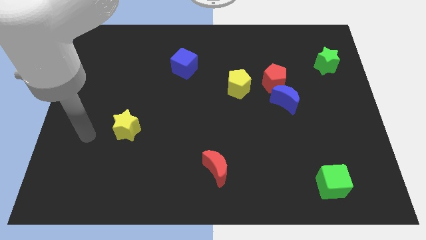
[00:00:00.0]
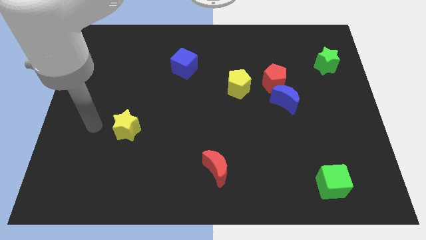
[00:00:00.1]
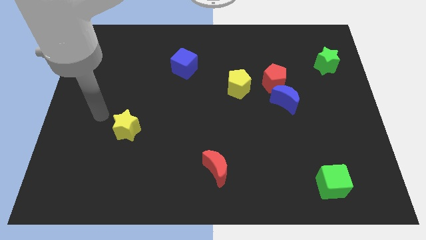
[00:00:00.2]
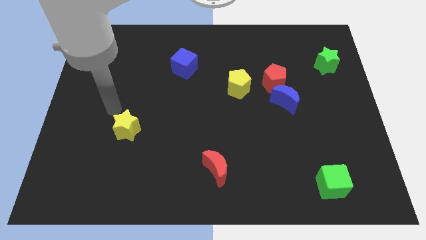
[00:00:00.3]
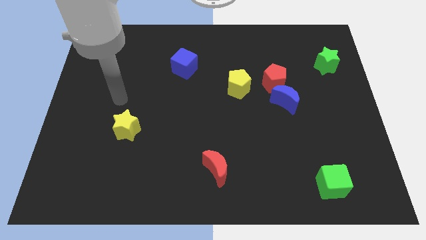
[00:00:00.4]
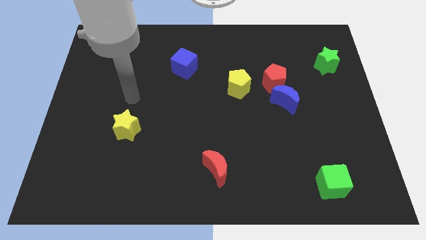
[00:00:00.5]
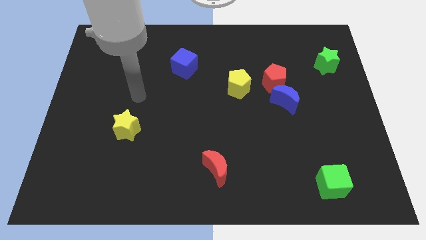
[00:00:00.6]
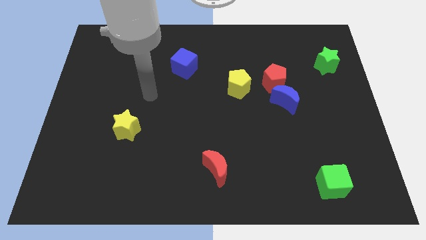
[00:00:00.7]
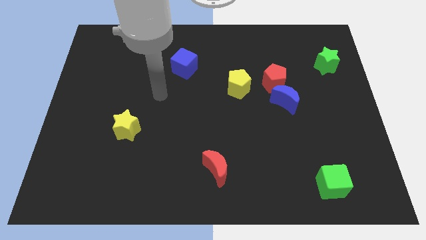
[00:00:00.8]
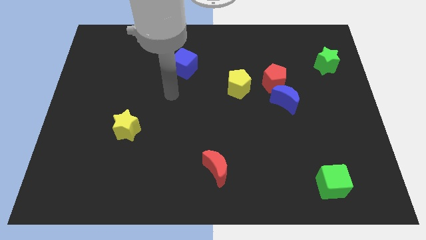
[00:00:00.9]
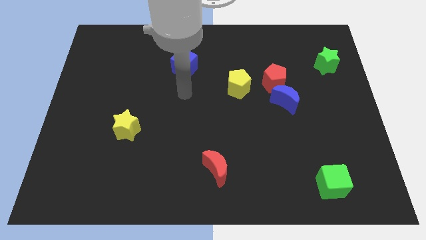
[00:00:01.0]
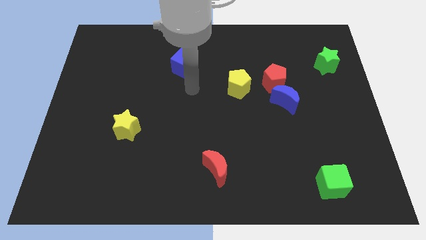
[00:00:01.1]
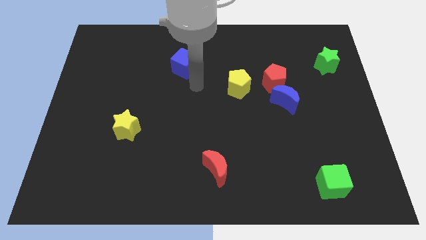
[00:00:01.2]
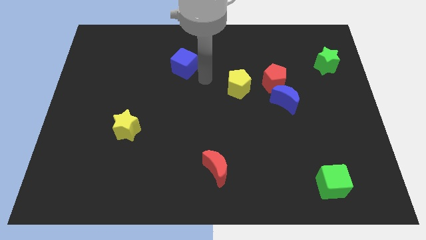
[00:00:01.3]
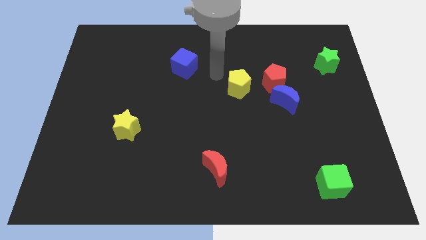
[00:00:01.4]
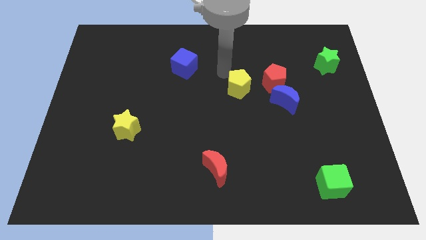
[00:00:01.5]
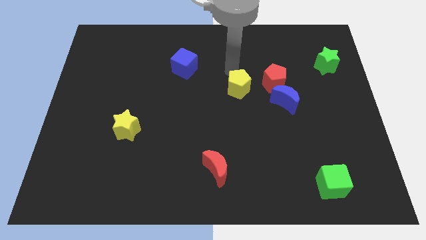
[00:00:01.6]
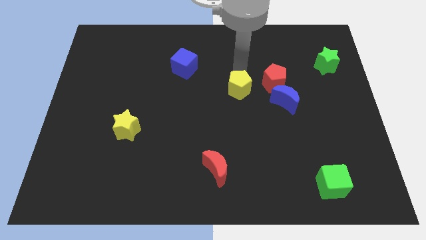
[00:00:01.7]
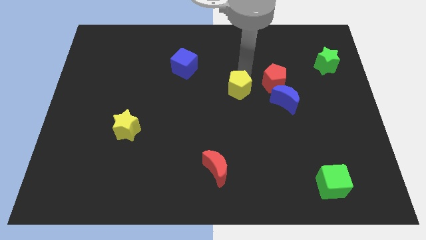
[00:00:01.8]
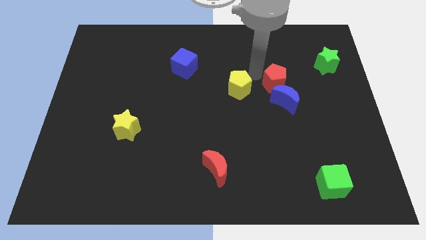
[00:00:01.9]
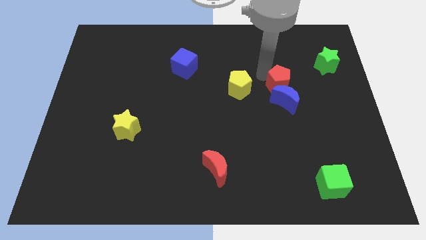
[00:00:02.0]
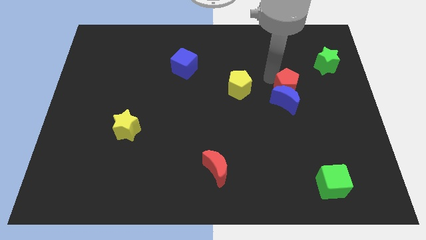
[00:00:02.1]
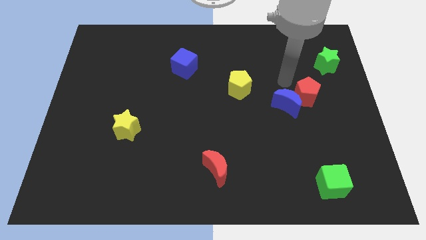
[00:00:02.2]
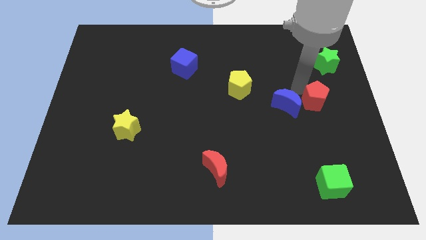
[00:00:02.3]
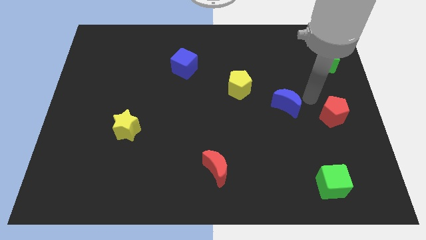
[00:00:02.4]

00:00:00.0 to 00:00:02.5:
pull the blue moon apart from the red pentagon

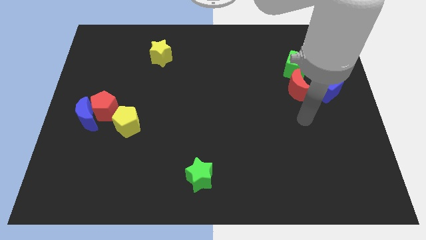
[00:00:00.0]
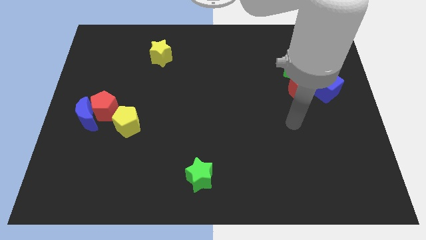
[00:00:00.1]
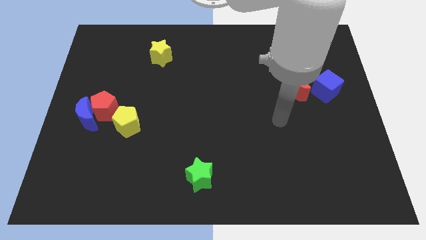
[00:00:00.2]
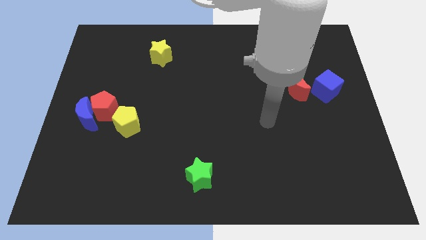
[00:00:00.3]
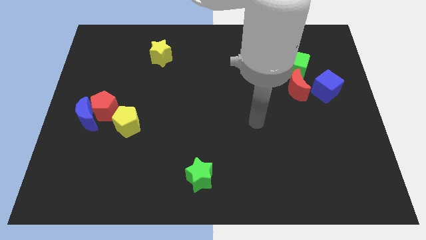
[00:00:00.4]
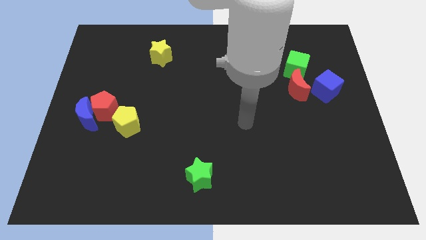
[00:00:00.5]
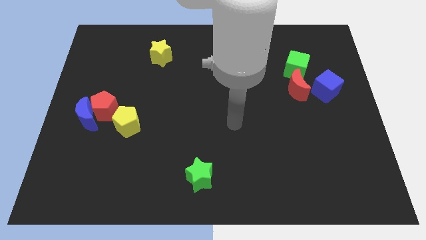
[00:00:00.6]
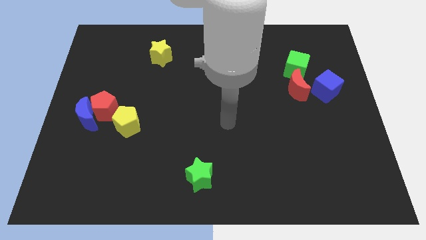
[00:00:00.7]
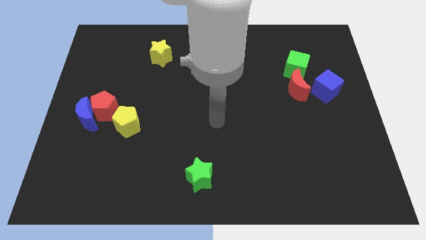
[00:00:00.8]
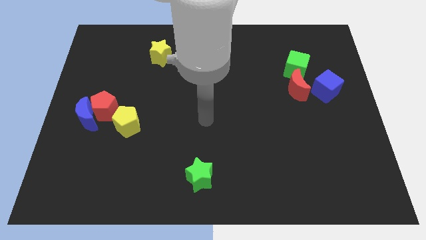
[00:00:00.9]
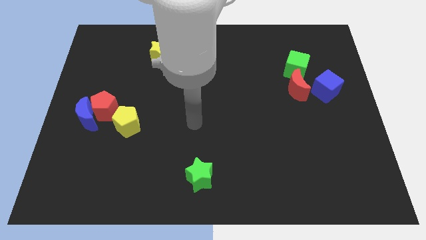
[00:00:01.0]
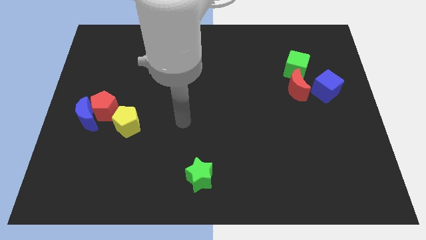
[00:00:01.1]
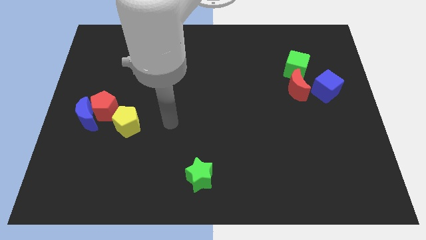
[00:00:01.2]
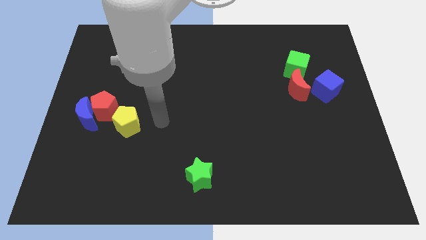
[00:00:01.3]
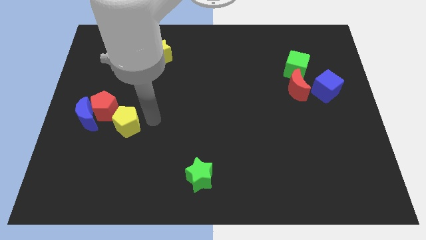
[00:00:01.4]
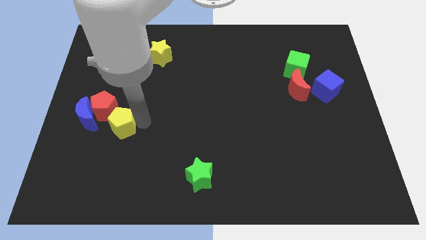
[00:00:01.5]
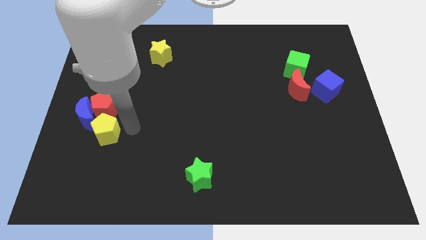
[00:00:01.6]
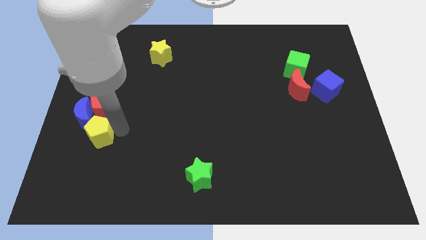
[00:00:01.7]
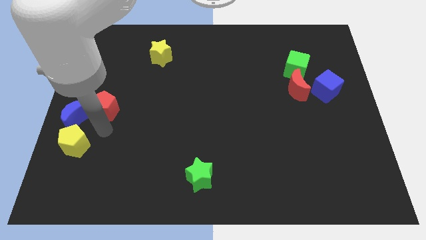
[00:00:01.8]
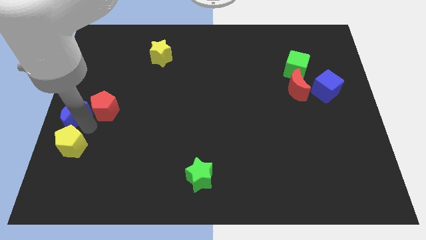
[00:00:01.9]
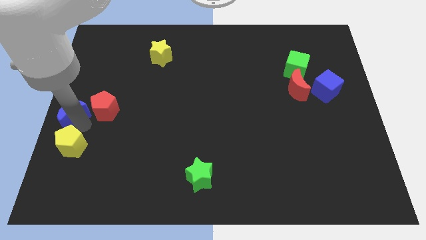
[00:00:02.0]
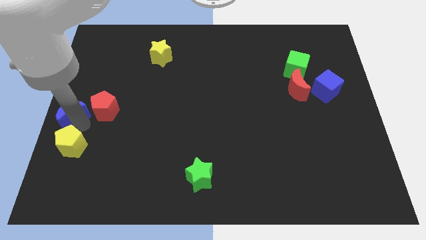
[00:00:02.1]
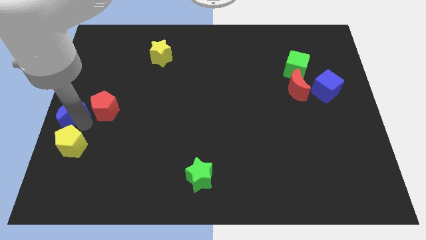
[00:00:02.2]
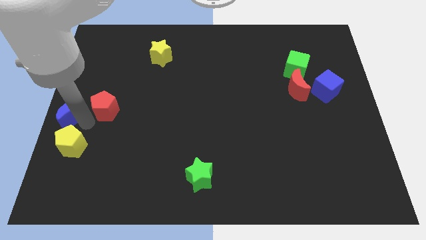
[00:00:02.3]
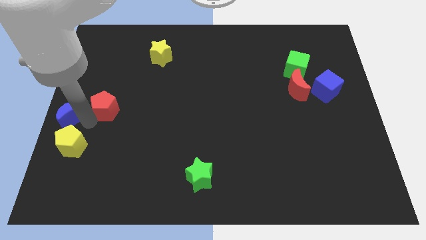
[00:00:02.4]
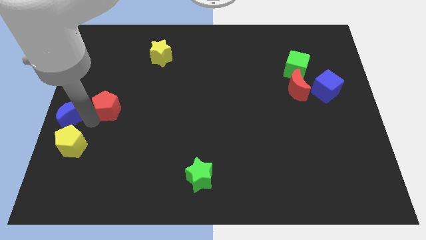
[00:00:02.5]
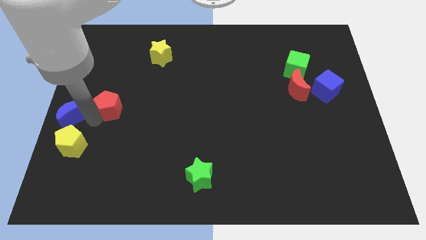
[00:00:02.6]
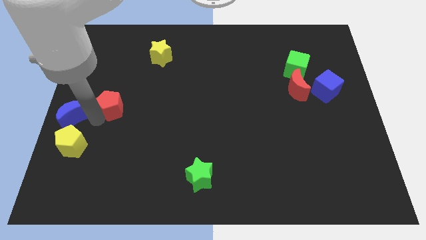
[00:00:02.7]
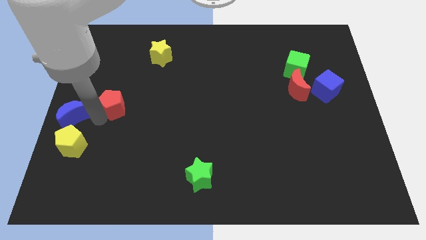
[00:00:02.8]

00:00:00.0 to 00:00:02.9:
separate the red pentagon from the blue moon and yellow pentagon

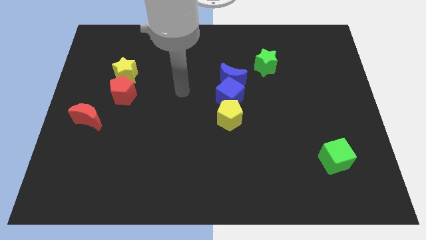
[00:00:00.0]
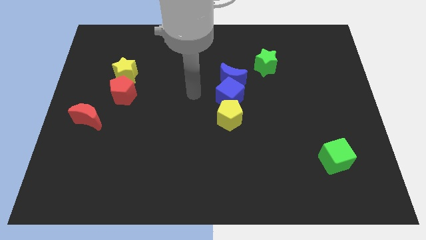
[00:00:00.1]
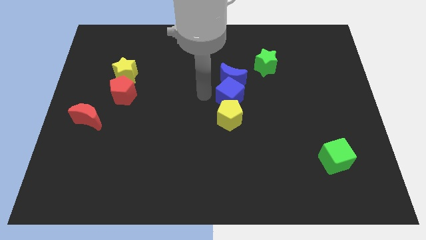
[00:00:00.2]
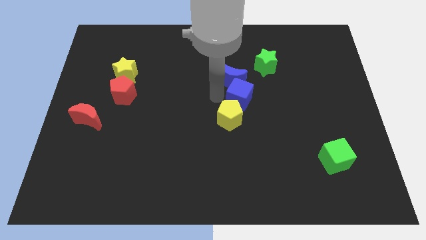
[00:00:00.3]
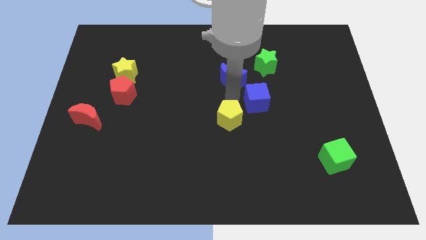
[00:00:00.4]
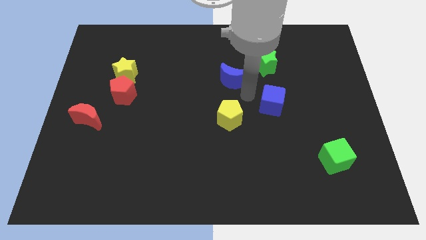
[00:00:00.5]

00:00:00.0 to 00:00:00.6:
separate the blue moon from the blue cube

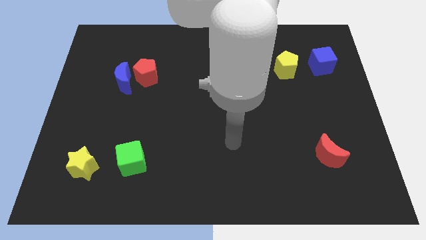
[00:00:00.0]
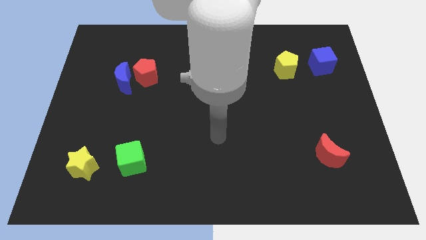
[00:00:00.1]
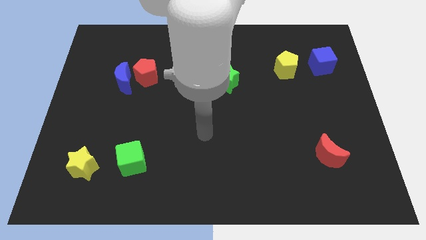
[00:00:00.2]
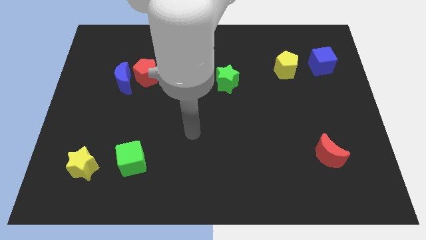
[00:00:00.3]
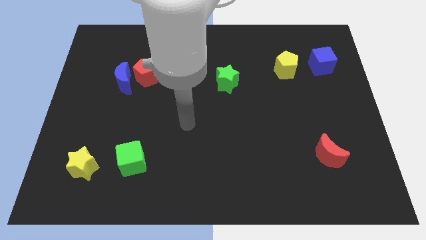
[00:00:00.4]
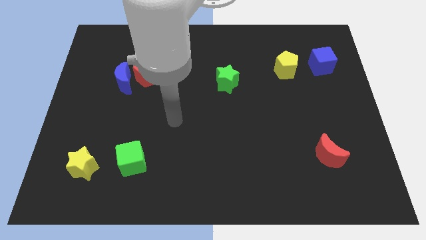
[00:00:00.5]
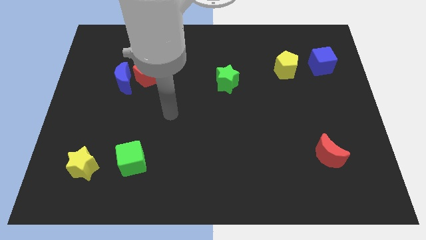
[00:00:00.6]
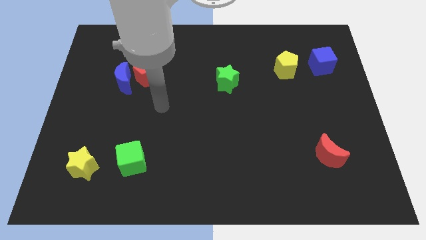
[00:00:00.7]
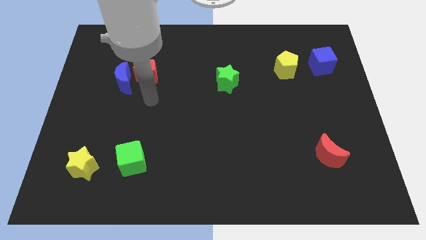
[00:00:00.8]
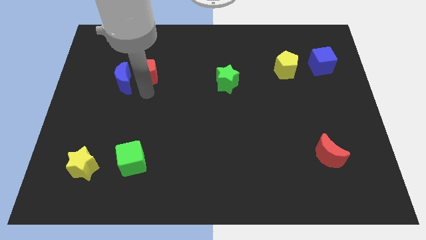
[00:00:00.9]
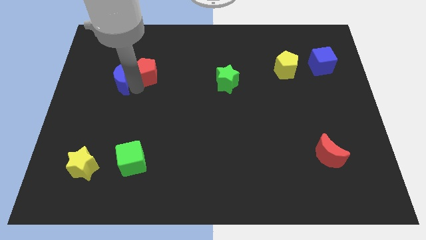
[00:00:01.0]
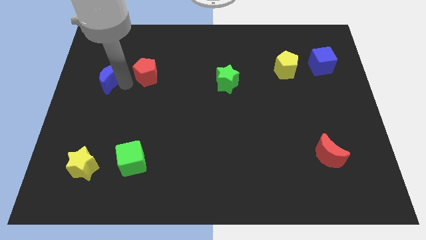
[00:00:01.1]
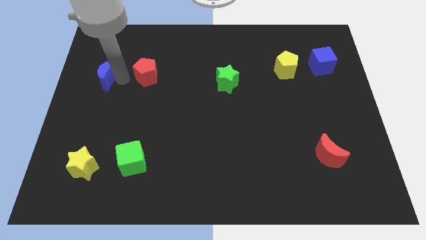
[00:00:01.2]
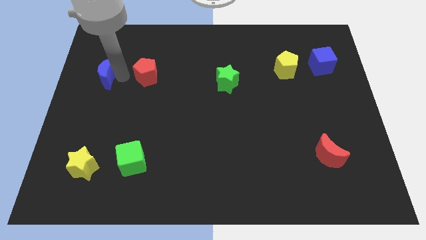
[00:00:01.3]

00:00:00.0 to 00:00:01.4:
separate the red pentagon from the blue moon

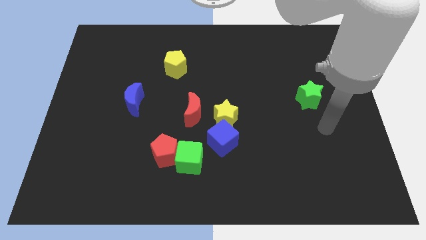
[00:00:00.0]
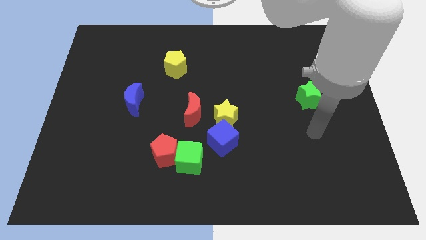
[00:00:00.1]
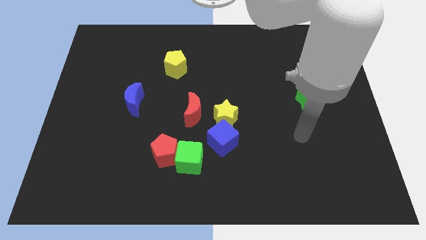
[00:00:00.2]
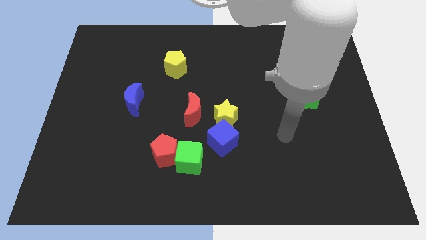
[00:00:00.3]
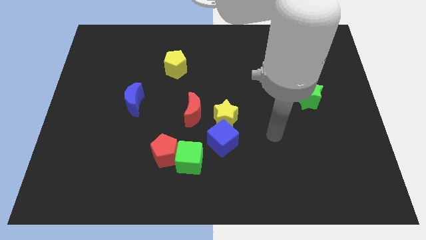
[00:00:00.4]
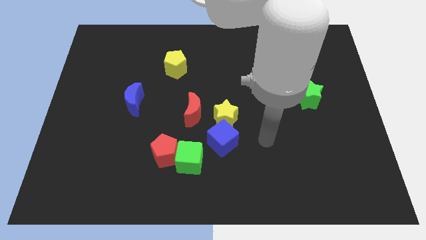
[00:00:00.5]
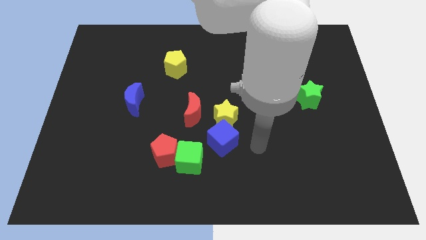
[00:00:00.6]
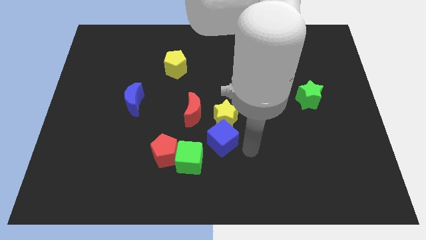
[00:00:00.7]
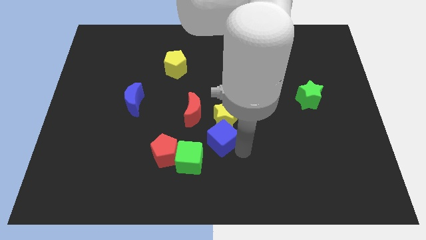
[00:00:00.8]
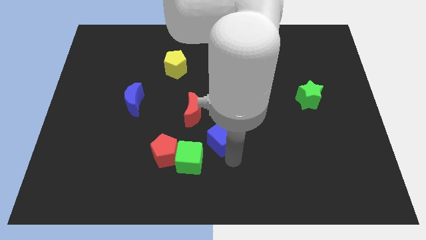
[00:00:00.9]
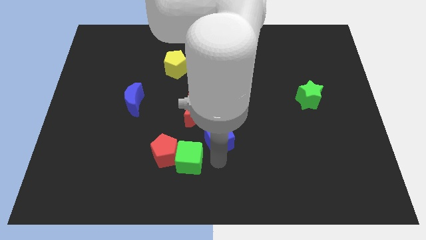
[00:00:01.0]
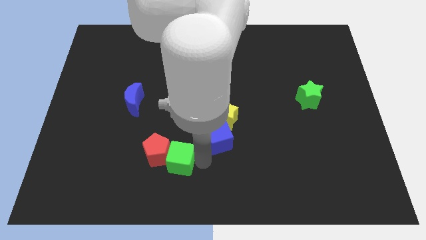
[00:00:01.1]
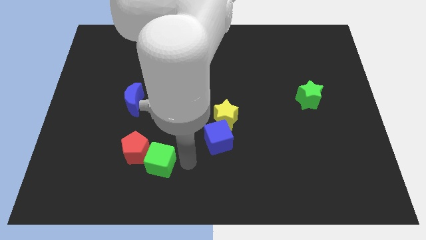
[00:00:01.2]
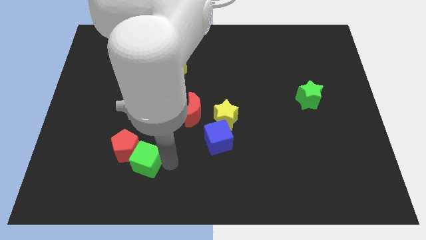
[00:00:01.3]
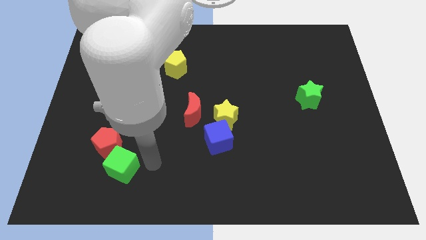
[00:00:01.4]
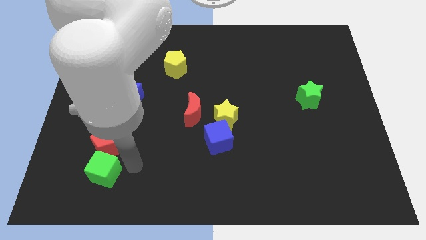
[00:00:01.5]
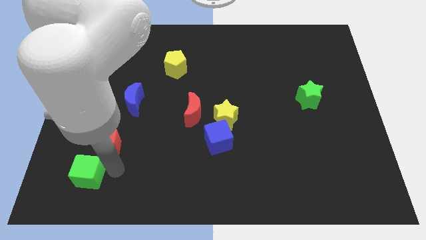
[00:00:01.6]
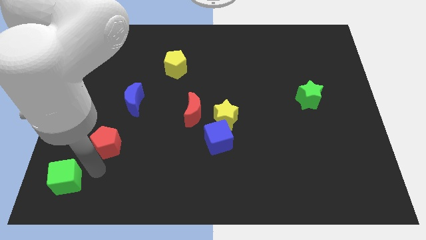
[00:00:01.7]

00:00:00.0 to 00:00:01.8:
move the red pentagon away from the green cube

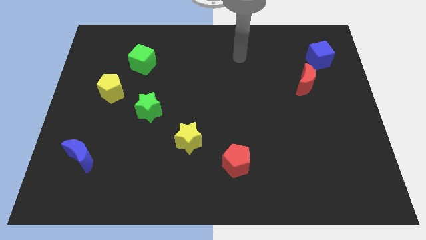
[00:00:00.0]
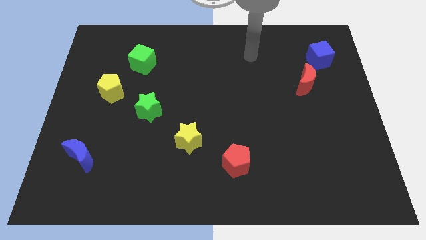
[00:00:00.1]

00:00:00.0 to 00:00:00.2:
separate the red moon from the blue cube
